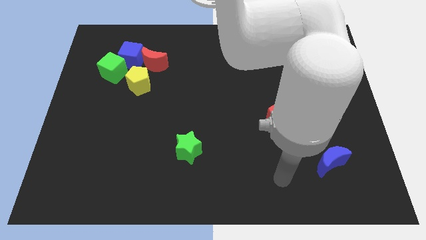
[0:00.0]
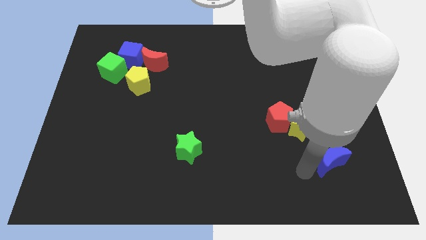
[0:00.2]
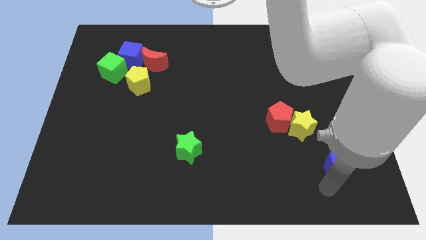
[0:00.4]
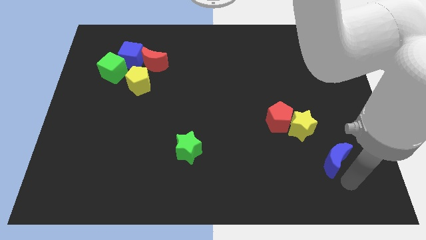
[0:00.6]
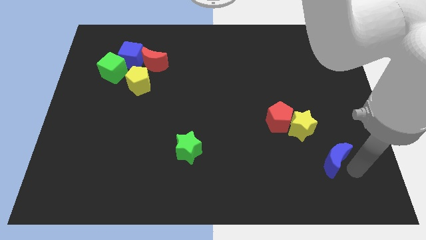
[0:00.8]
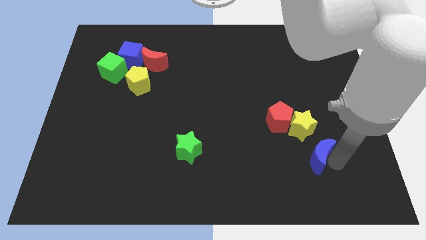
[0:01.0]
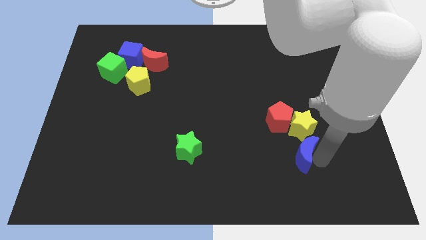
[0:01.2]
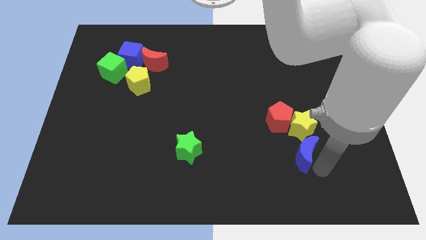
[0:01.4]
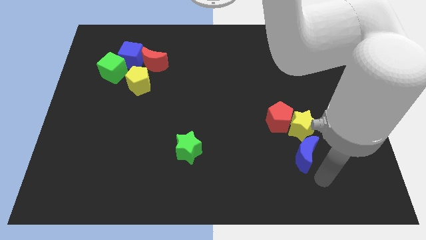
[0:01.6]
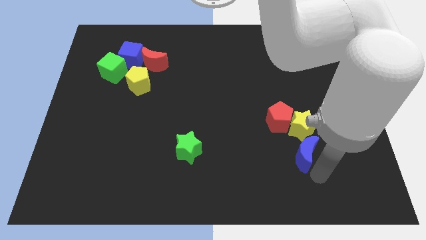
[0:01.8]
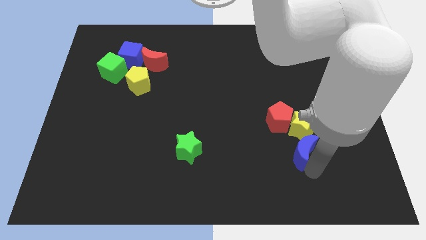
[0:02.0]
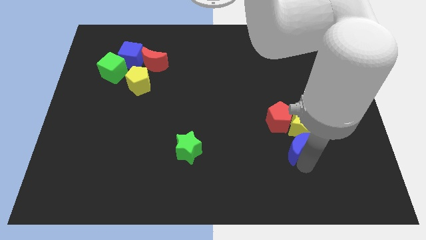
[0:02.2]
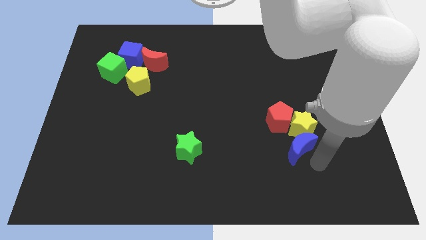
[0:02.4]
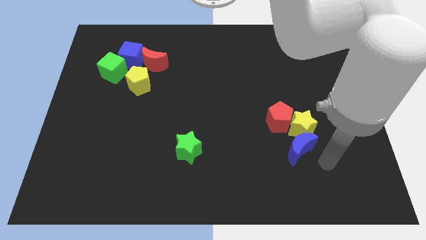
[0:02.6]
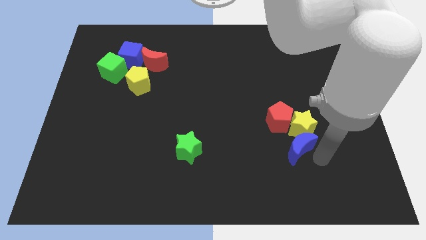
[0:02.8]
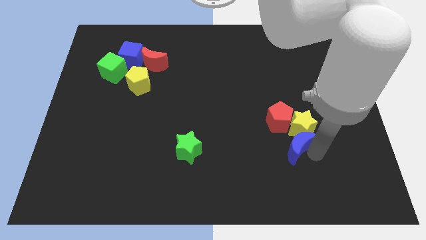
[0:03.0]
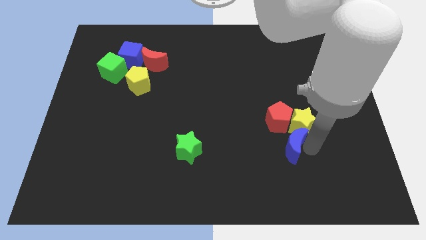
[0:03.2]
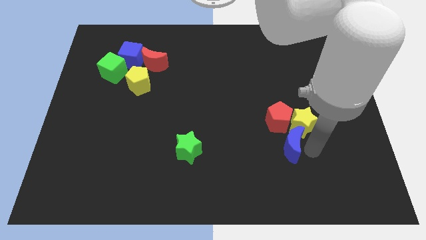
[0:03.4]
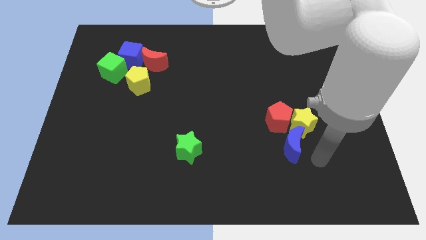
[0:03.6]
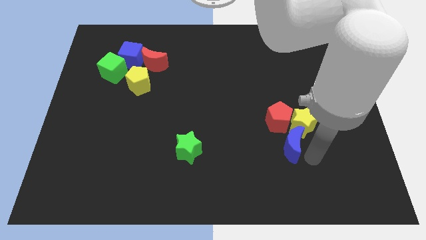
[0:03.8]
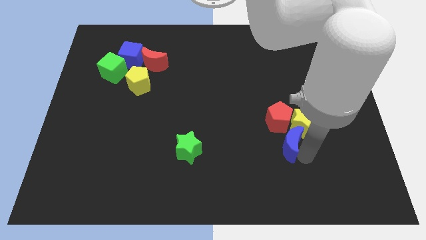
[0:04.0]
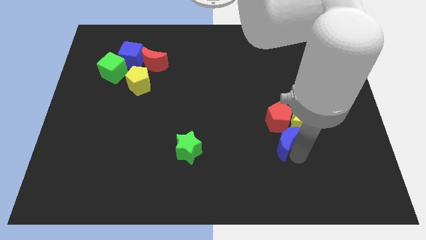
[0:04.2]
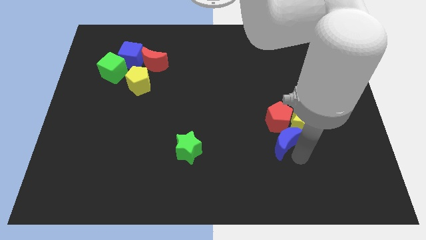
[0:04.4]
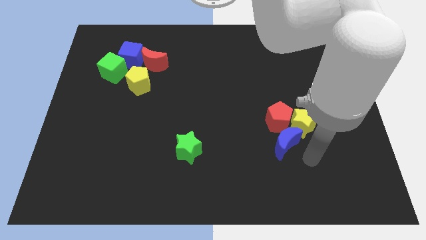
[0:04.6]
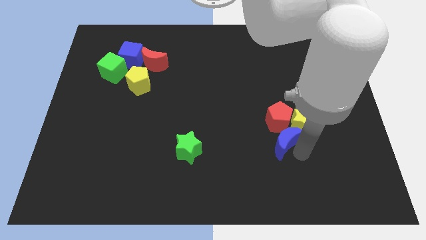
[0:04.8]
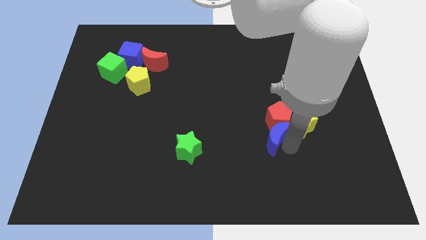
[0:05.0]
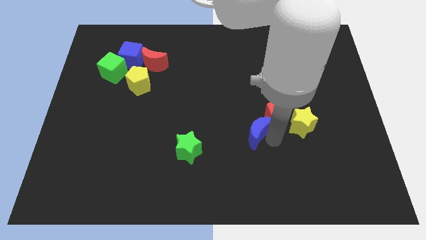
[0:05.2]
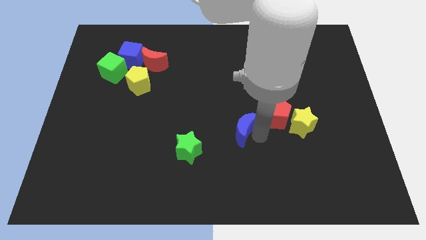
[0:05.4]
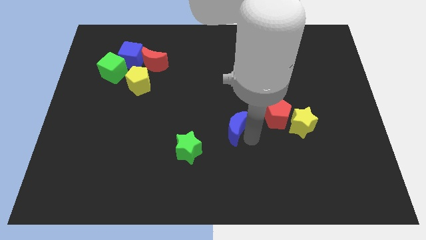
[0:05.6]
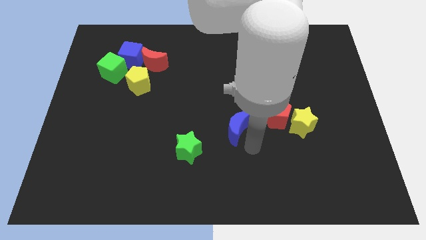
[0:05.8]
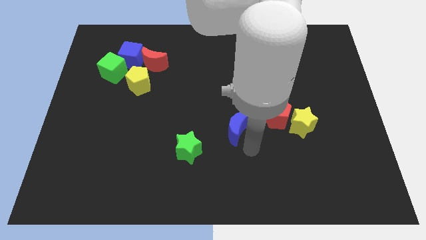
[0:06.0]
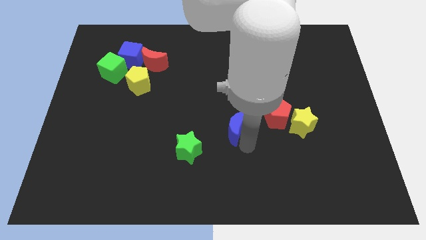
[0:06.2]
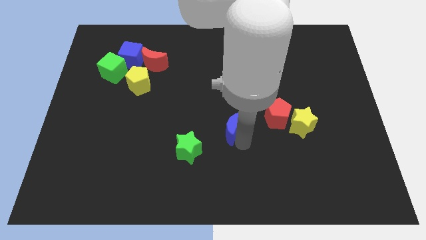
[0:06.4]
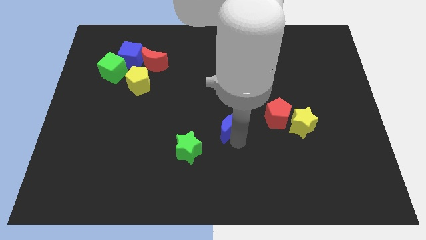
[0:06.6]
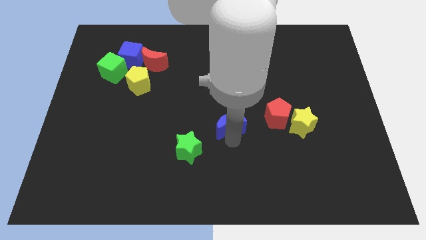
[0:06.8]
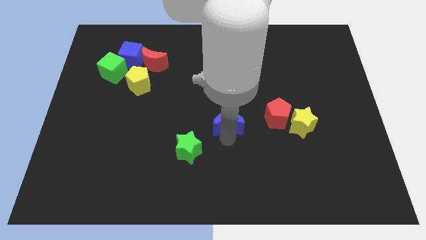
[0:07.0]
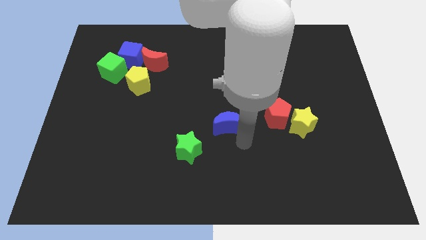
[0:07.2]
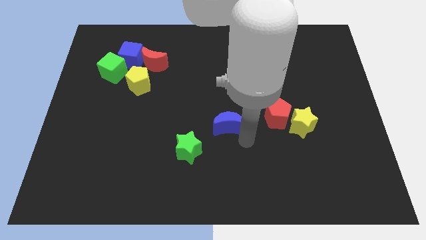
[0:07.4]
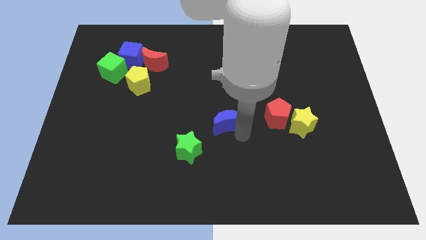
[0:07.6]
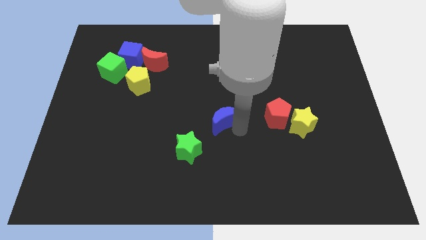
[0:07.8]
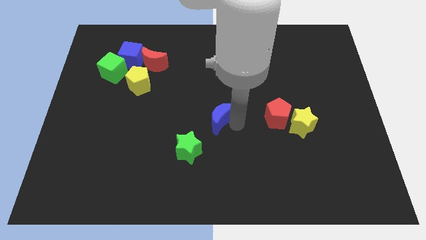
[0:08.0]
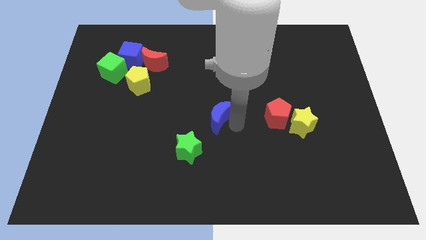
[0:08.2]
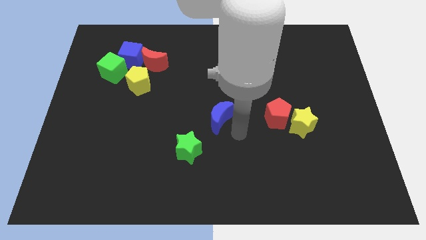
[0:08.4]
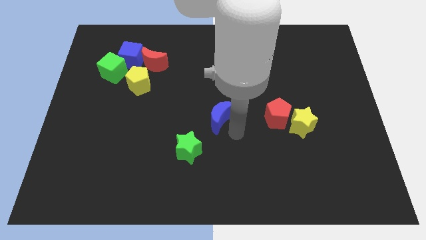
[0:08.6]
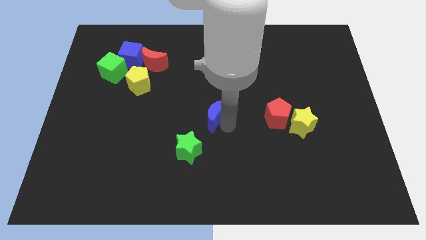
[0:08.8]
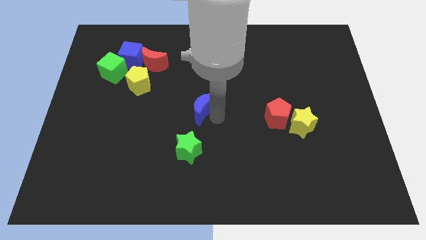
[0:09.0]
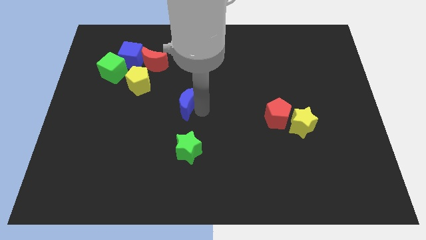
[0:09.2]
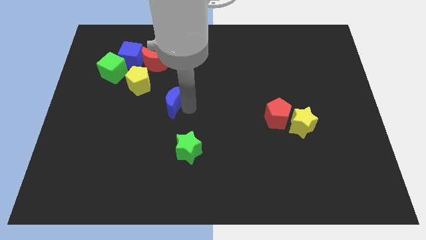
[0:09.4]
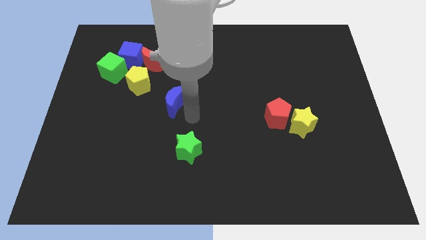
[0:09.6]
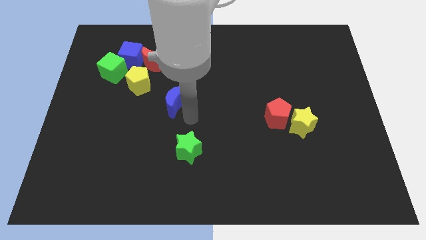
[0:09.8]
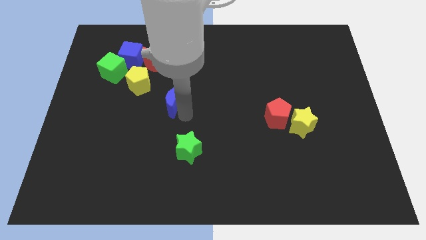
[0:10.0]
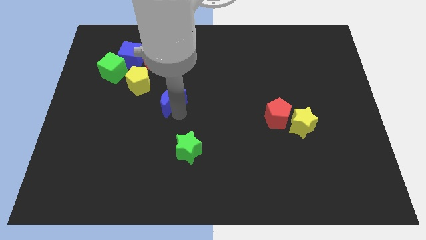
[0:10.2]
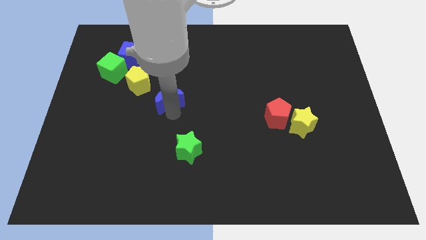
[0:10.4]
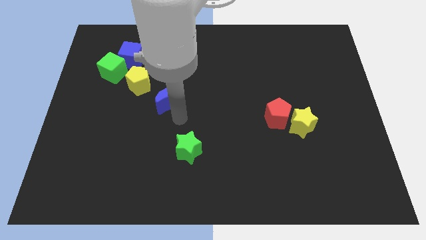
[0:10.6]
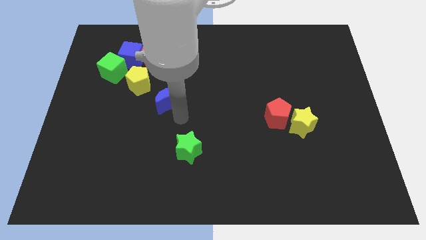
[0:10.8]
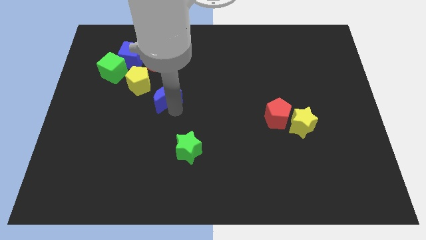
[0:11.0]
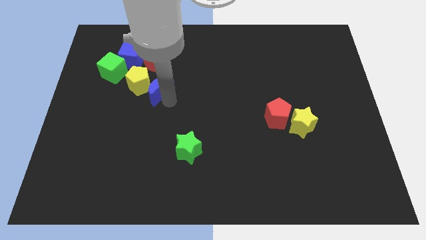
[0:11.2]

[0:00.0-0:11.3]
slide the blue moon close to the yellow pentagon

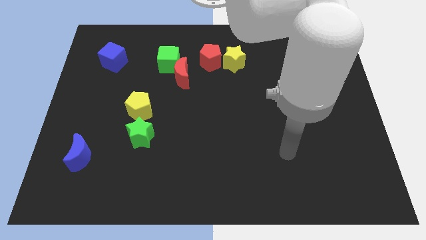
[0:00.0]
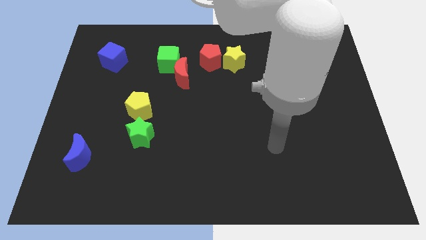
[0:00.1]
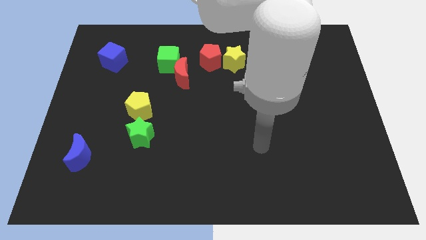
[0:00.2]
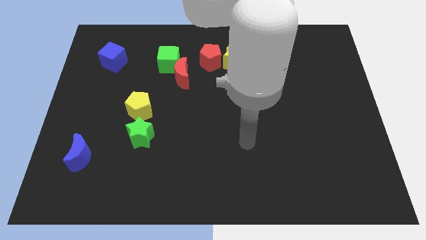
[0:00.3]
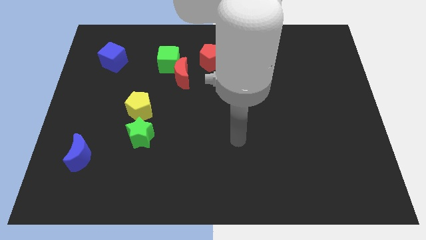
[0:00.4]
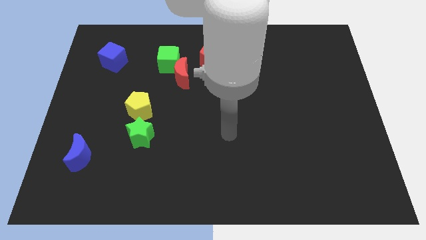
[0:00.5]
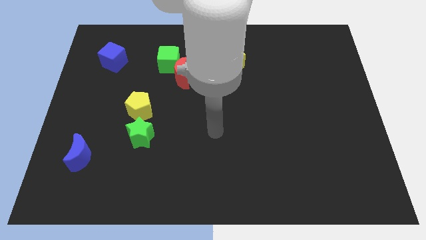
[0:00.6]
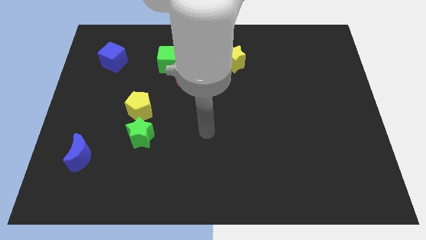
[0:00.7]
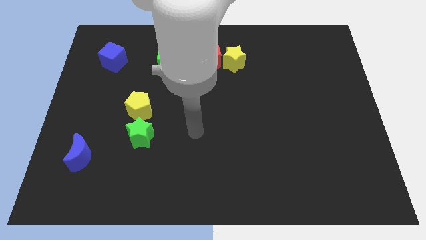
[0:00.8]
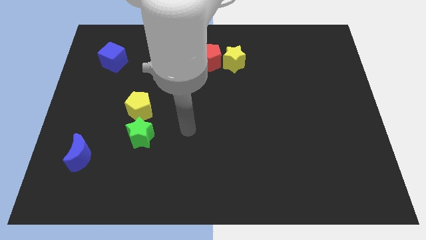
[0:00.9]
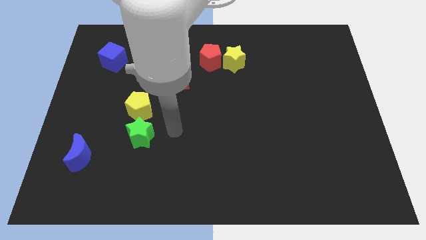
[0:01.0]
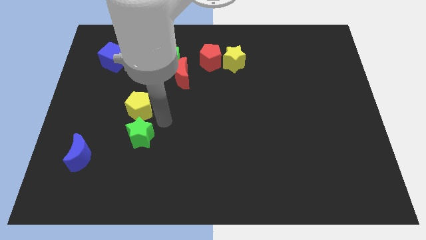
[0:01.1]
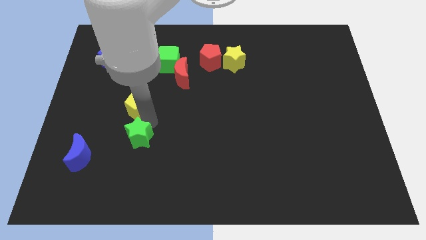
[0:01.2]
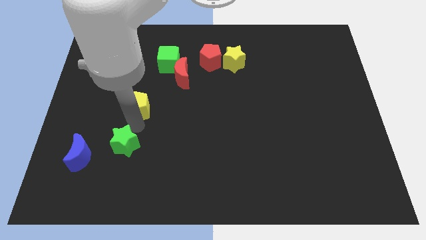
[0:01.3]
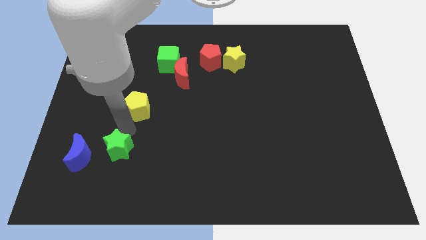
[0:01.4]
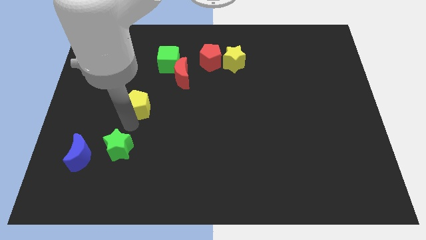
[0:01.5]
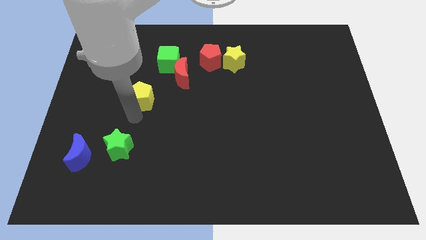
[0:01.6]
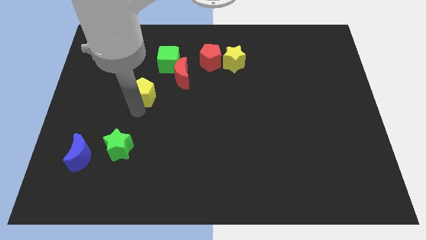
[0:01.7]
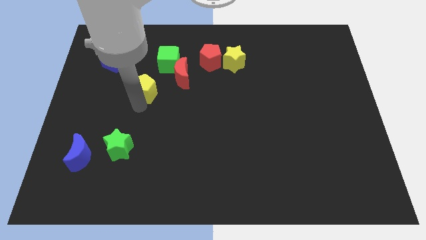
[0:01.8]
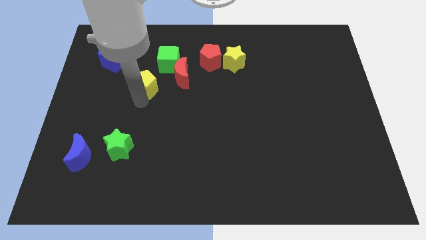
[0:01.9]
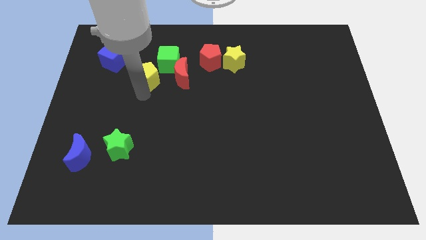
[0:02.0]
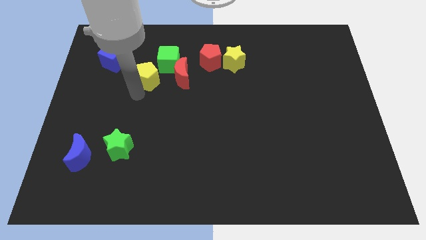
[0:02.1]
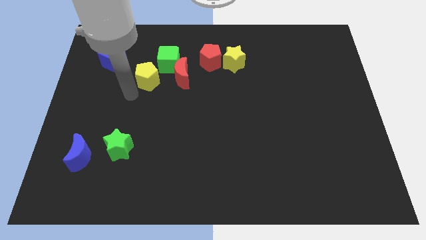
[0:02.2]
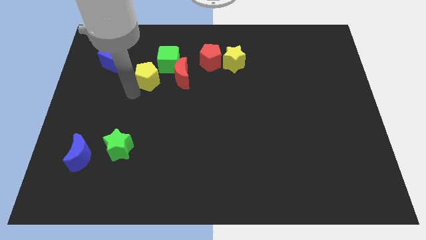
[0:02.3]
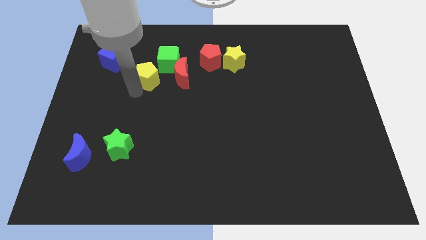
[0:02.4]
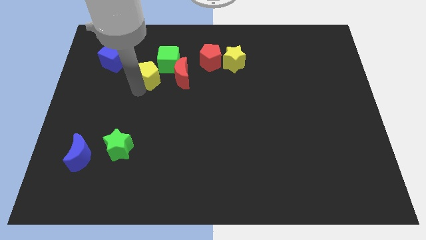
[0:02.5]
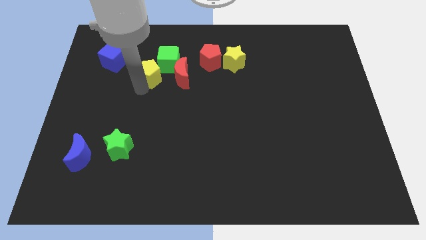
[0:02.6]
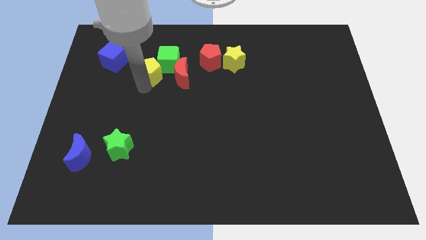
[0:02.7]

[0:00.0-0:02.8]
slide the yellow pentagon towards the green cube
